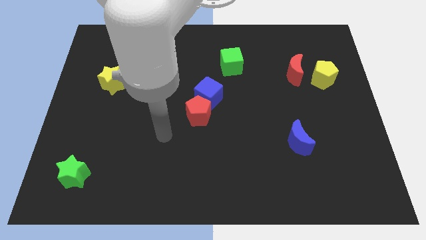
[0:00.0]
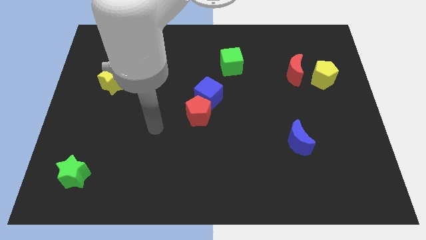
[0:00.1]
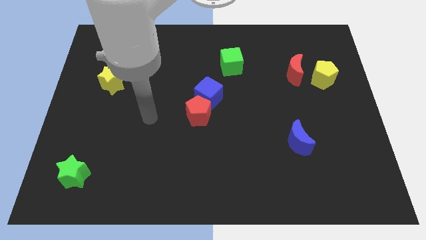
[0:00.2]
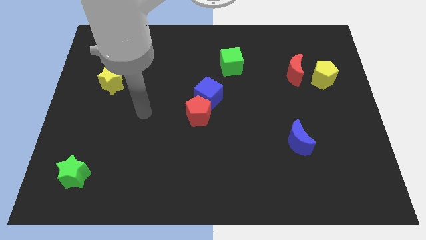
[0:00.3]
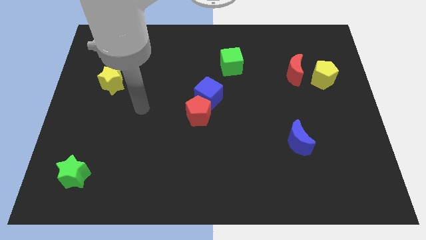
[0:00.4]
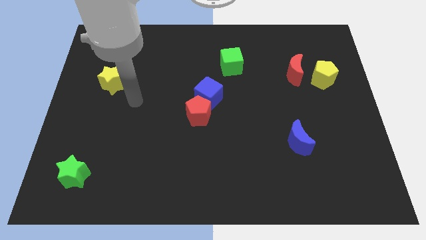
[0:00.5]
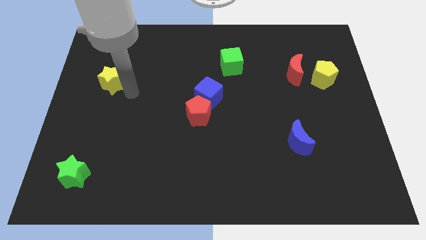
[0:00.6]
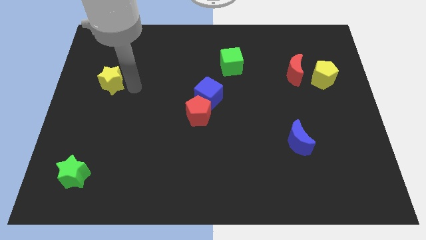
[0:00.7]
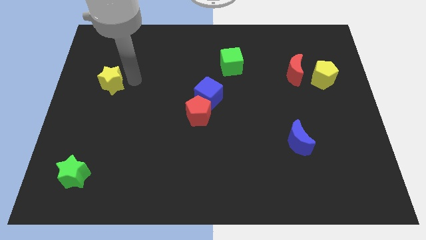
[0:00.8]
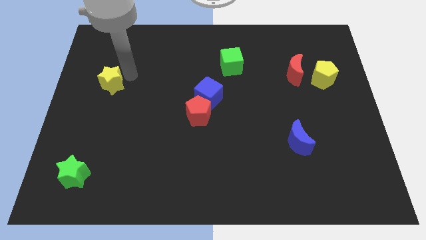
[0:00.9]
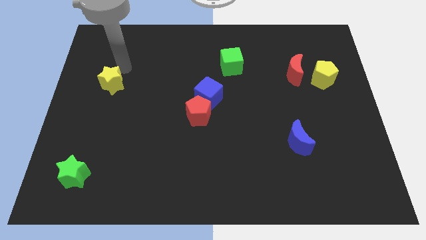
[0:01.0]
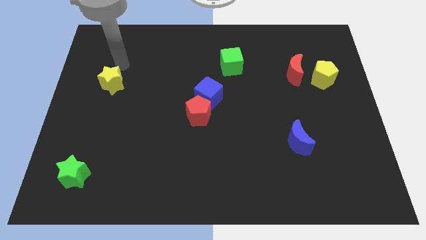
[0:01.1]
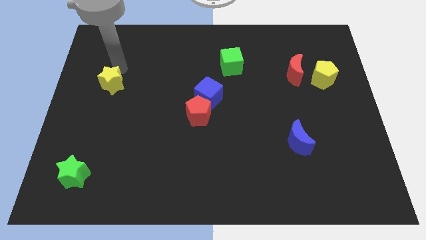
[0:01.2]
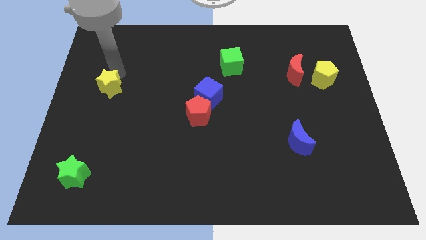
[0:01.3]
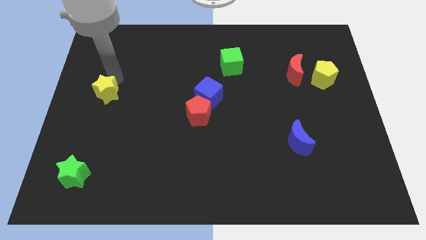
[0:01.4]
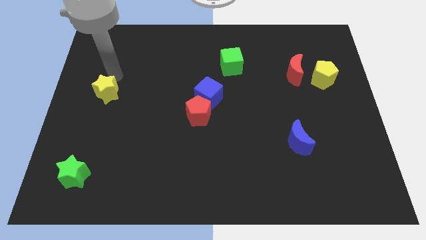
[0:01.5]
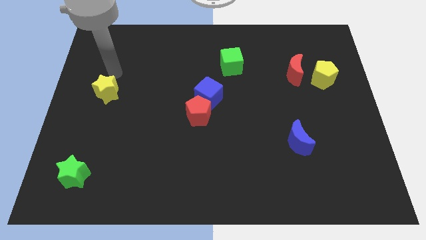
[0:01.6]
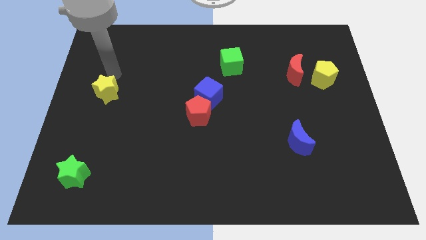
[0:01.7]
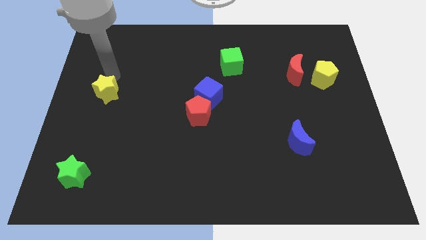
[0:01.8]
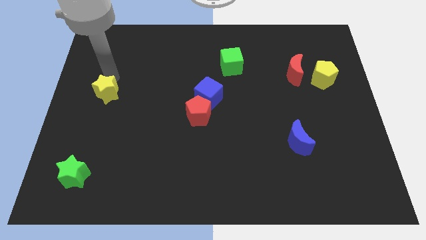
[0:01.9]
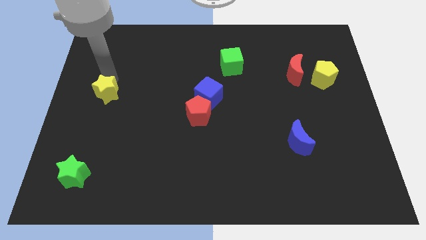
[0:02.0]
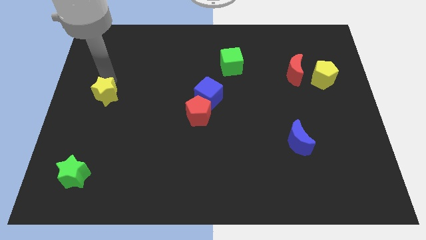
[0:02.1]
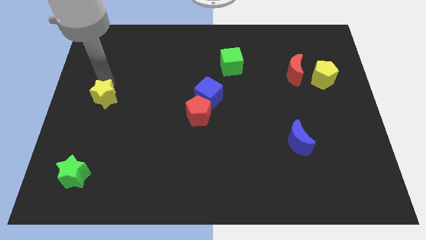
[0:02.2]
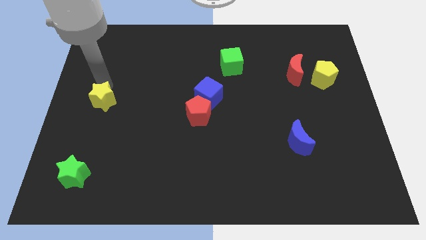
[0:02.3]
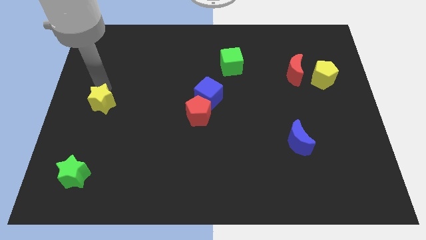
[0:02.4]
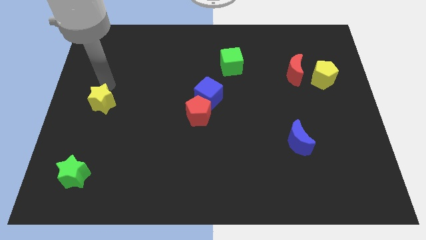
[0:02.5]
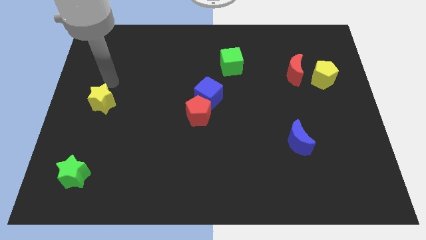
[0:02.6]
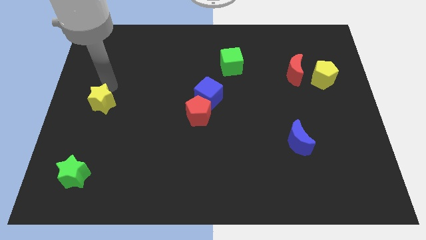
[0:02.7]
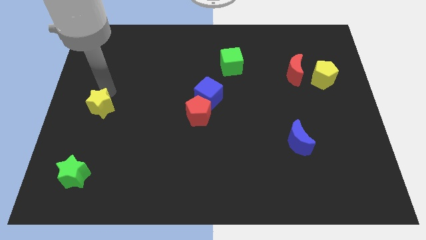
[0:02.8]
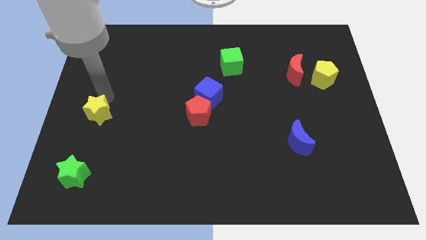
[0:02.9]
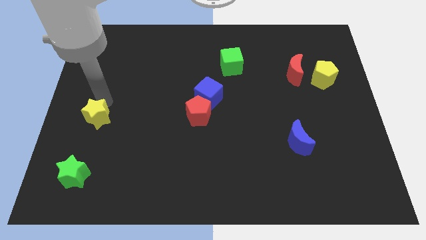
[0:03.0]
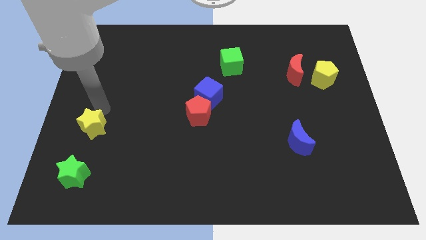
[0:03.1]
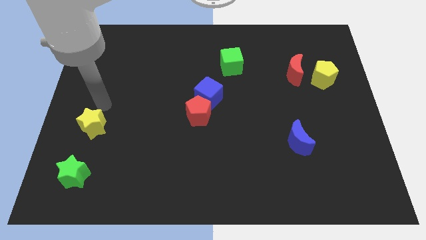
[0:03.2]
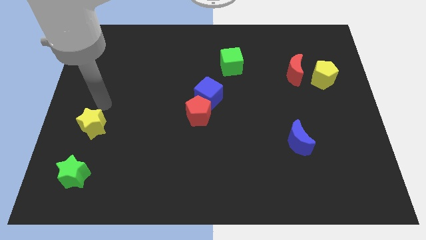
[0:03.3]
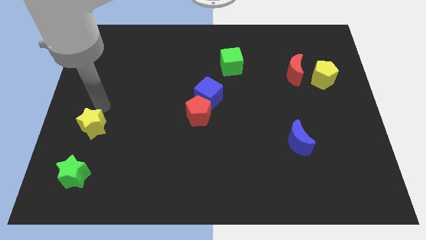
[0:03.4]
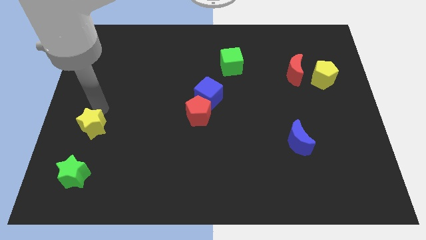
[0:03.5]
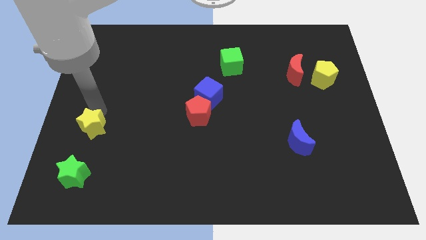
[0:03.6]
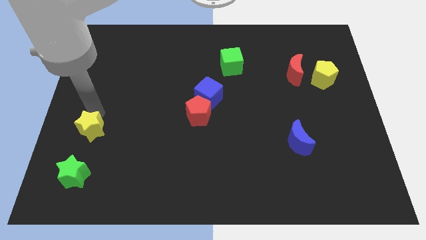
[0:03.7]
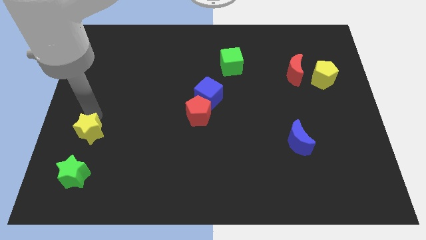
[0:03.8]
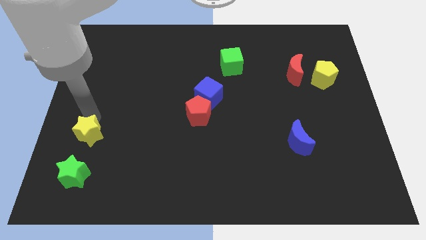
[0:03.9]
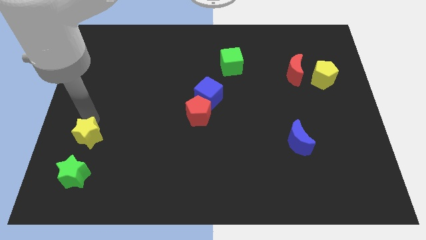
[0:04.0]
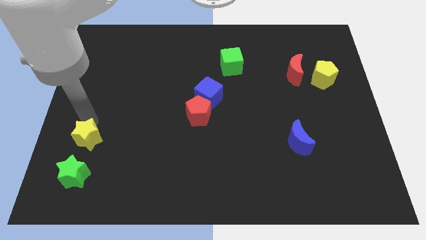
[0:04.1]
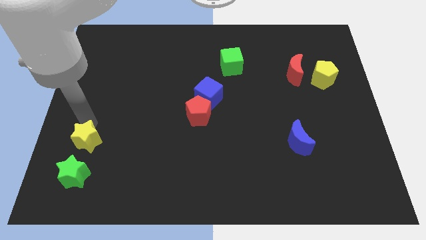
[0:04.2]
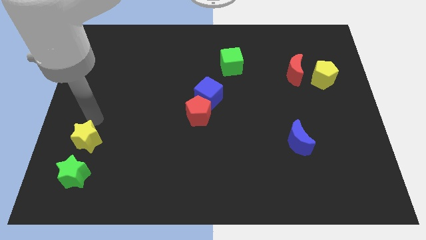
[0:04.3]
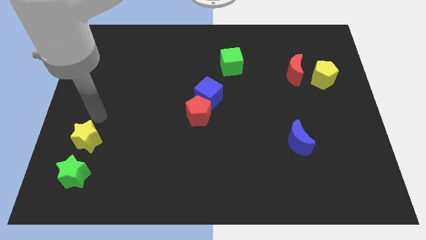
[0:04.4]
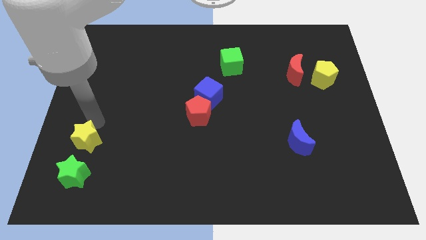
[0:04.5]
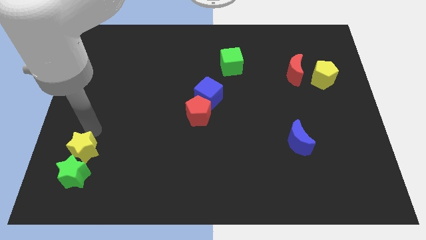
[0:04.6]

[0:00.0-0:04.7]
slide the yellow star next to the green star

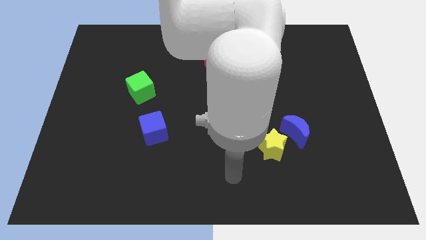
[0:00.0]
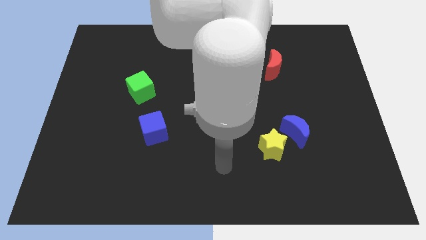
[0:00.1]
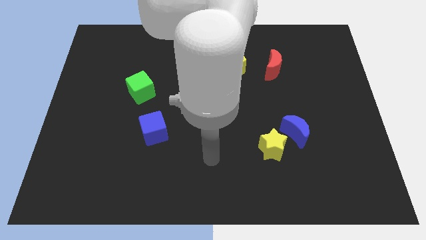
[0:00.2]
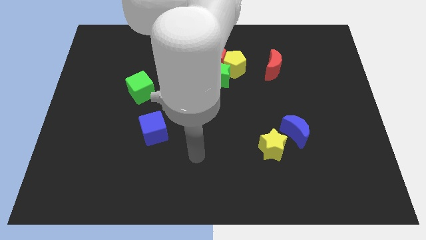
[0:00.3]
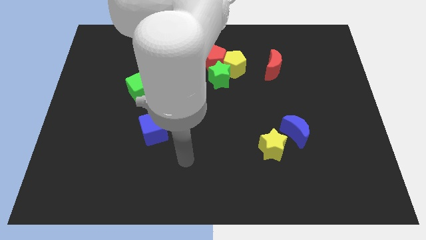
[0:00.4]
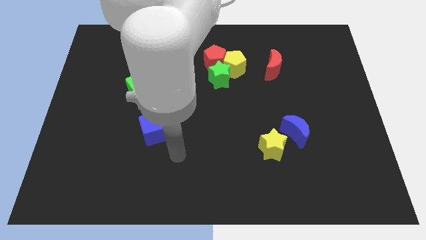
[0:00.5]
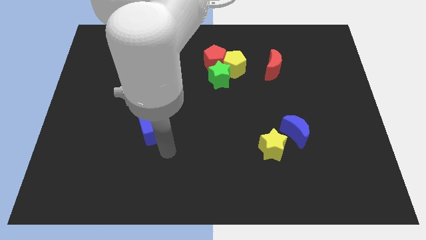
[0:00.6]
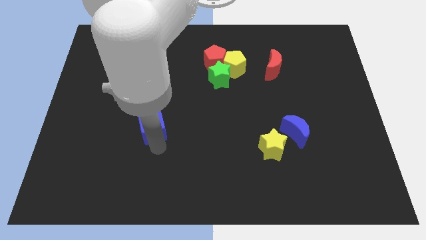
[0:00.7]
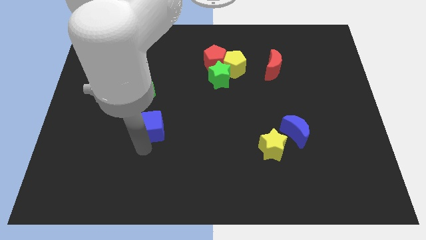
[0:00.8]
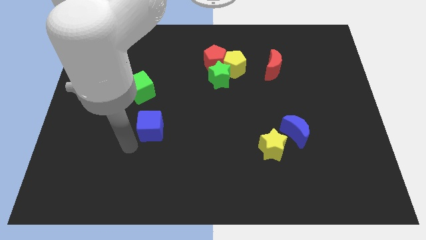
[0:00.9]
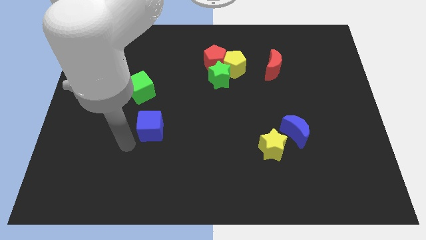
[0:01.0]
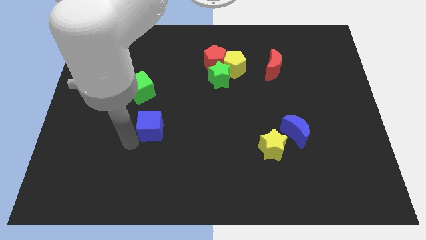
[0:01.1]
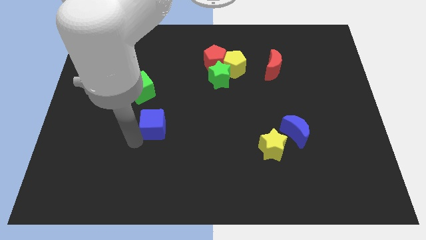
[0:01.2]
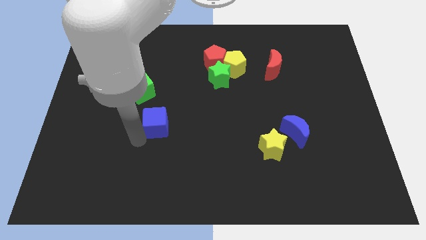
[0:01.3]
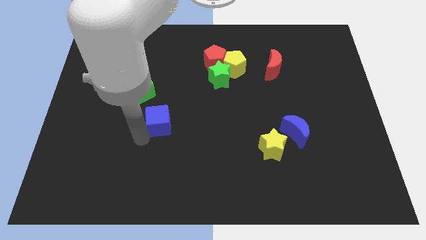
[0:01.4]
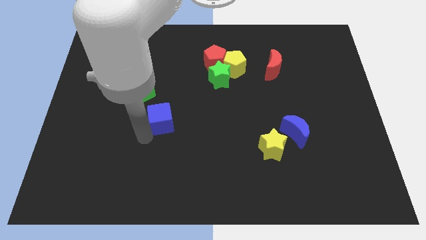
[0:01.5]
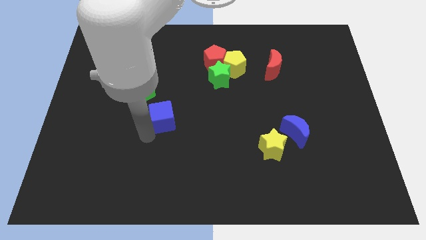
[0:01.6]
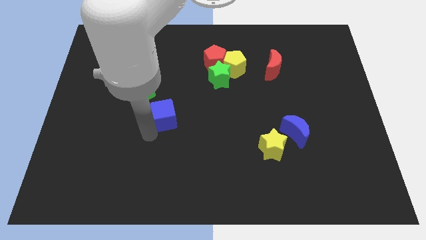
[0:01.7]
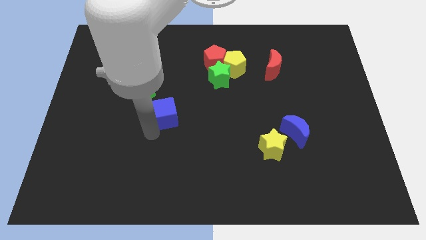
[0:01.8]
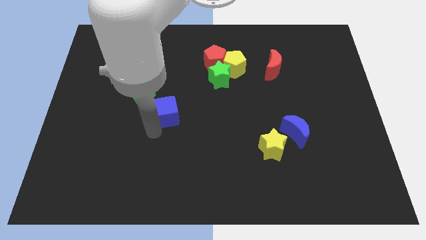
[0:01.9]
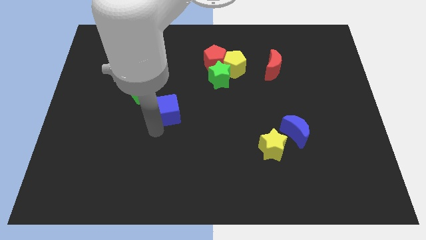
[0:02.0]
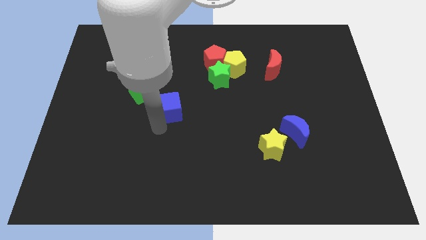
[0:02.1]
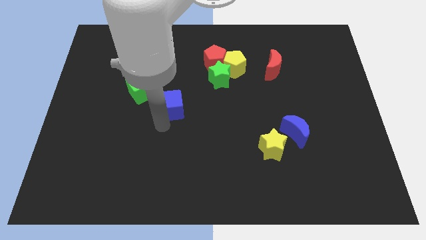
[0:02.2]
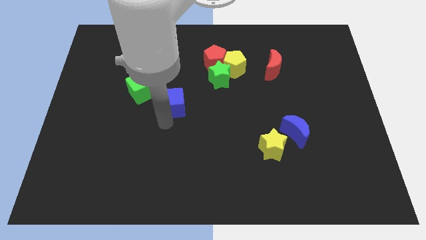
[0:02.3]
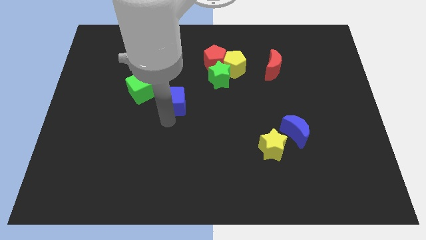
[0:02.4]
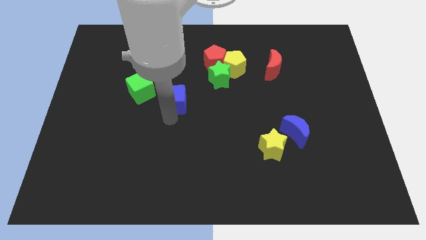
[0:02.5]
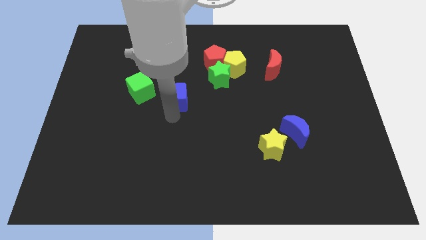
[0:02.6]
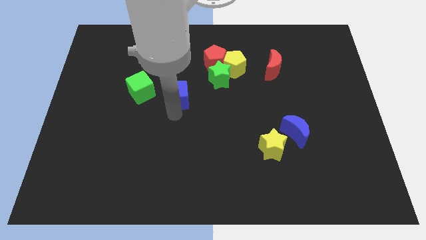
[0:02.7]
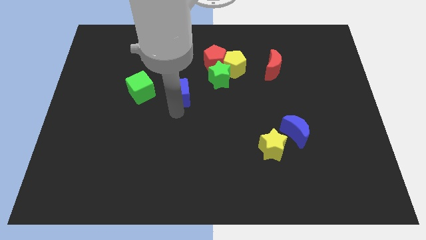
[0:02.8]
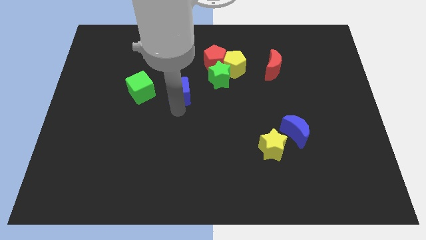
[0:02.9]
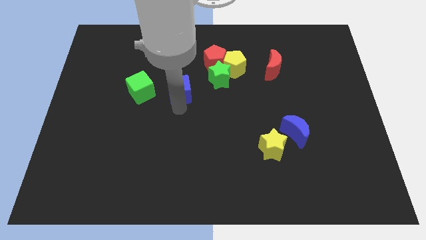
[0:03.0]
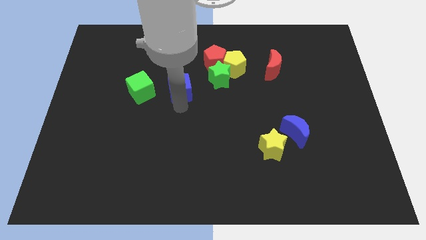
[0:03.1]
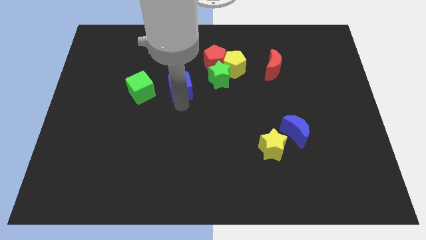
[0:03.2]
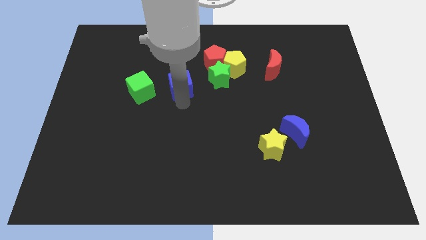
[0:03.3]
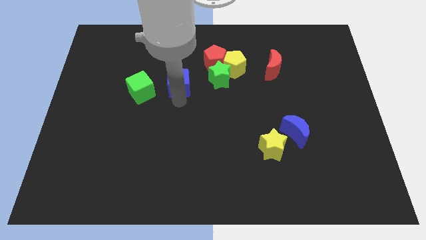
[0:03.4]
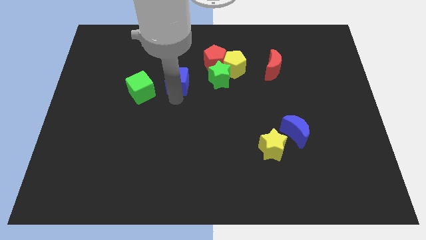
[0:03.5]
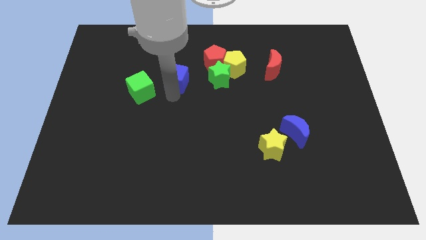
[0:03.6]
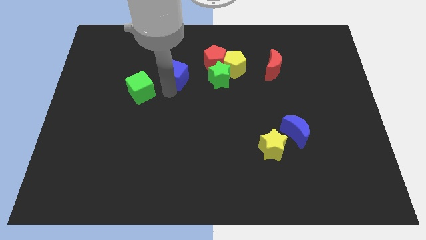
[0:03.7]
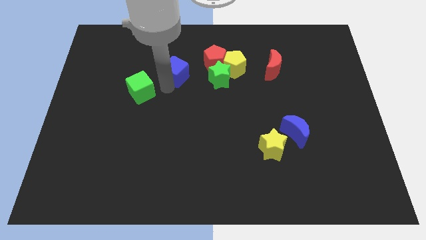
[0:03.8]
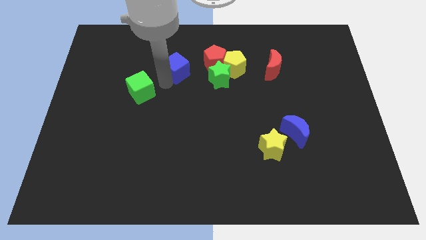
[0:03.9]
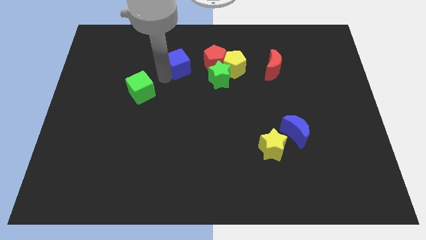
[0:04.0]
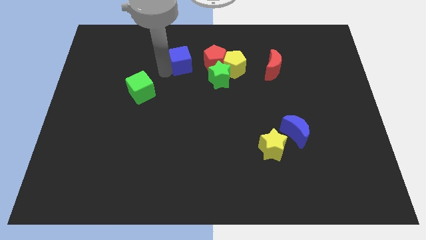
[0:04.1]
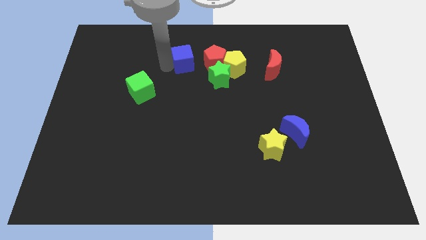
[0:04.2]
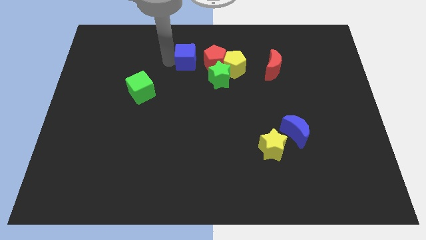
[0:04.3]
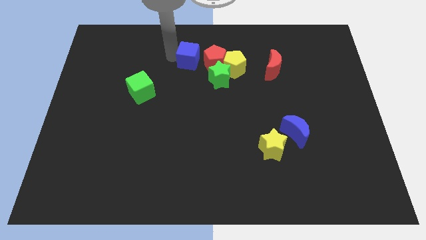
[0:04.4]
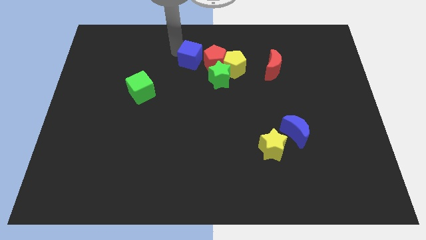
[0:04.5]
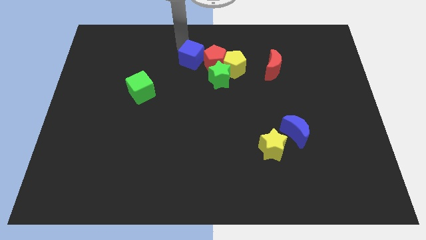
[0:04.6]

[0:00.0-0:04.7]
move the blue cube close to the red pentagon
